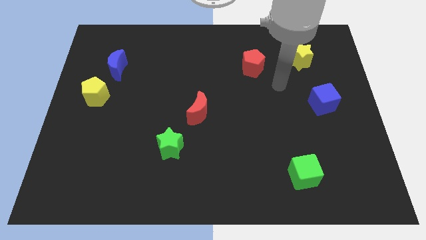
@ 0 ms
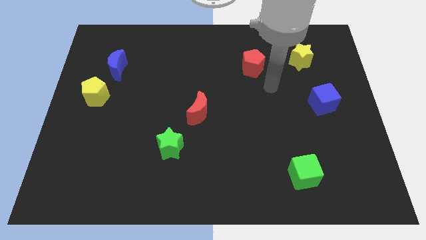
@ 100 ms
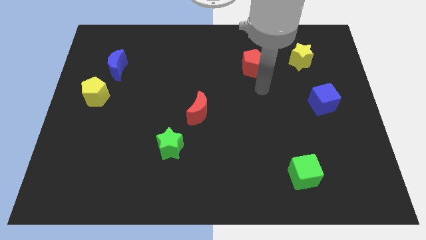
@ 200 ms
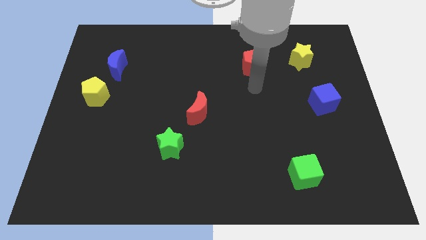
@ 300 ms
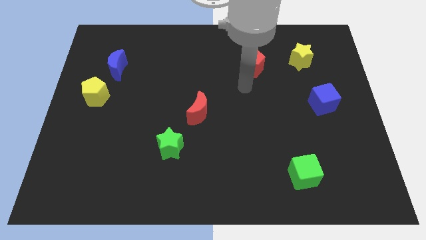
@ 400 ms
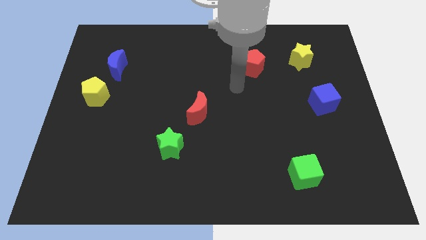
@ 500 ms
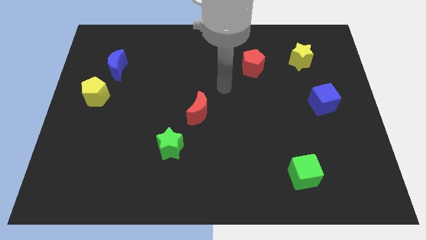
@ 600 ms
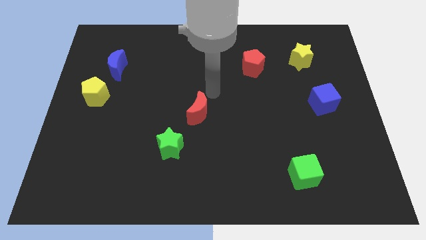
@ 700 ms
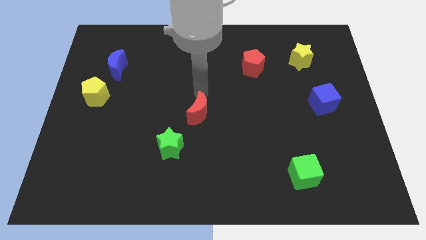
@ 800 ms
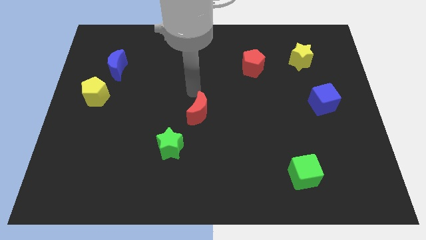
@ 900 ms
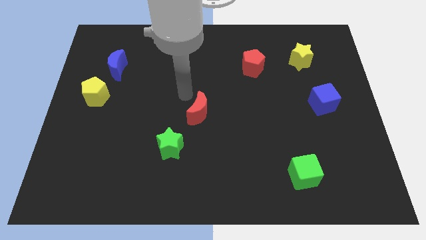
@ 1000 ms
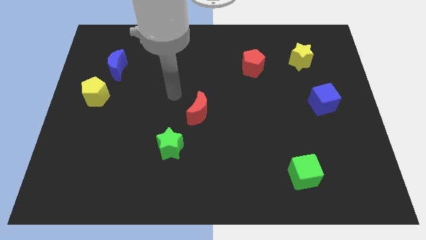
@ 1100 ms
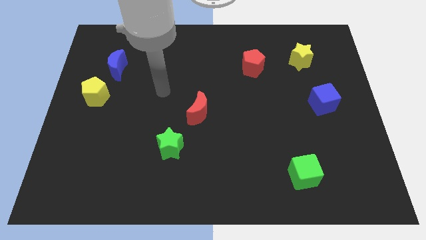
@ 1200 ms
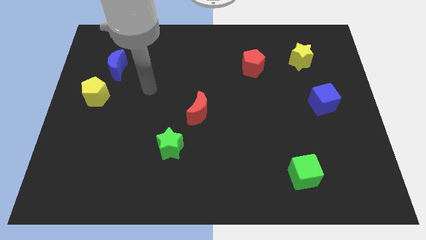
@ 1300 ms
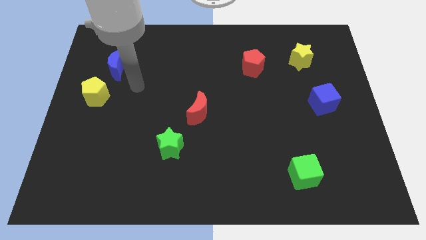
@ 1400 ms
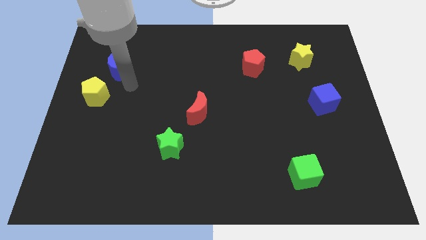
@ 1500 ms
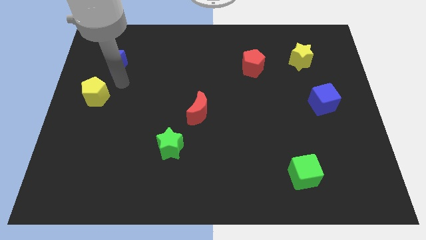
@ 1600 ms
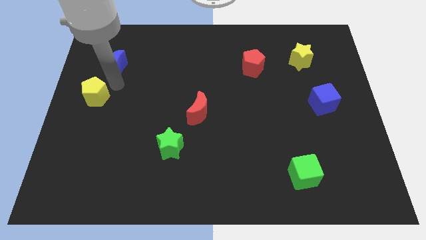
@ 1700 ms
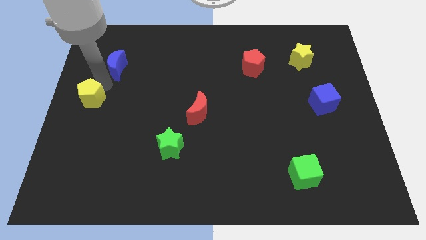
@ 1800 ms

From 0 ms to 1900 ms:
separate the blue moon from the yellow pentagon

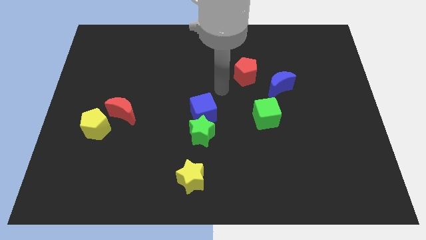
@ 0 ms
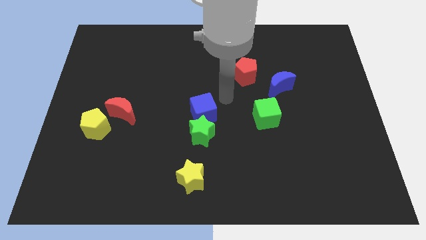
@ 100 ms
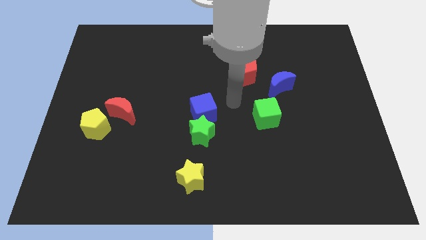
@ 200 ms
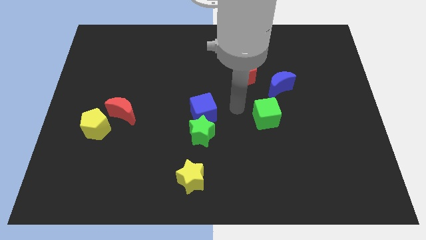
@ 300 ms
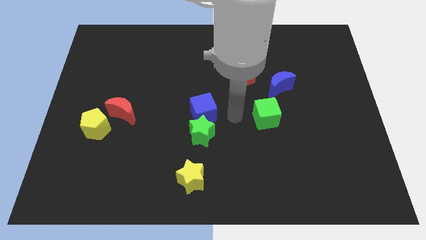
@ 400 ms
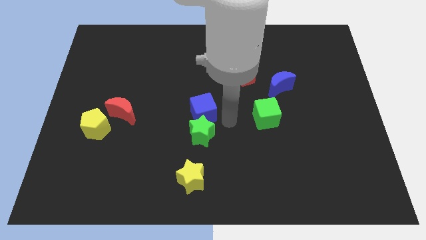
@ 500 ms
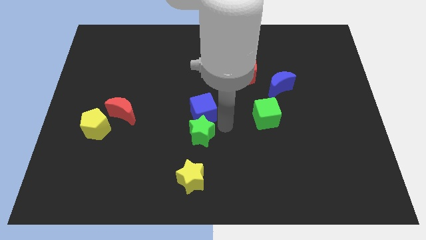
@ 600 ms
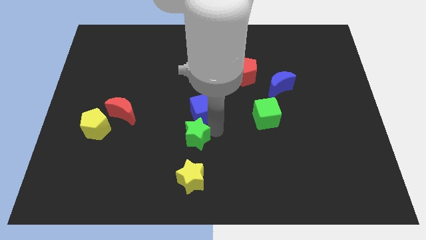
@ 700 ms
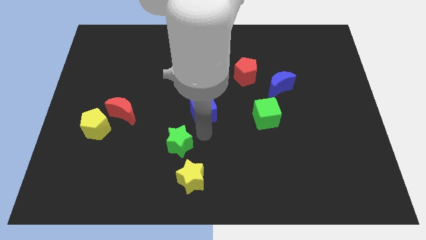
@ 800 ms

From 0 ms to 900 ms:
move the blue cube away from the green star

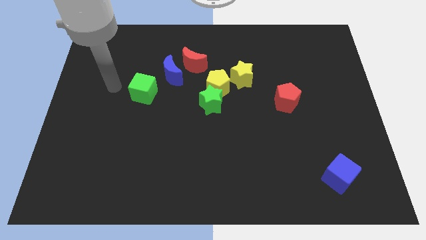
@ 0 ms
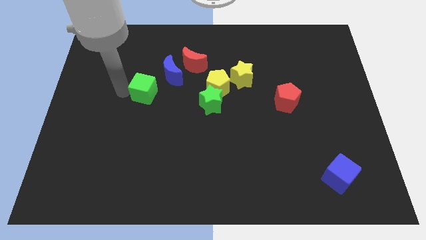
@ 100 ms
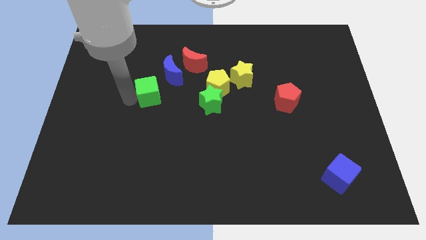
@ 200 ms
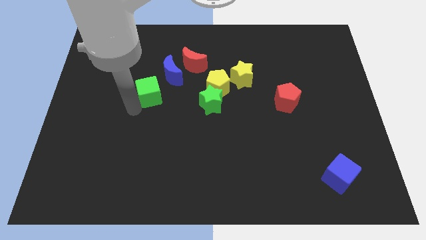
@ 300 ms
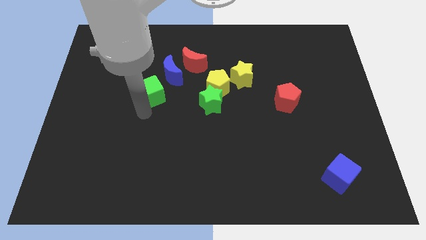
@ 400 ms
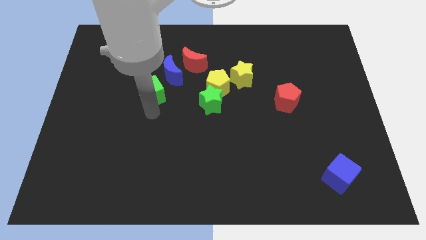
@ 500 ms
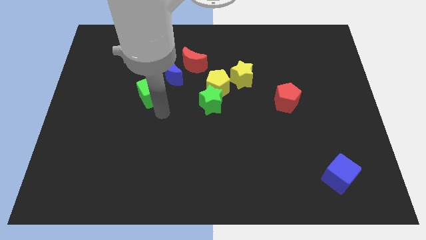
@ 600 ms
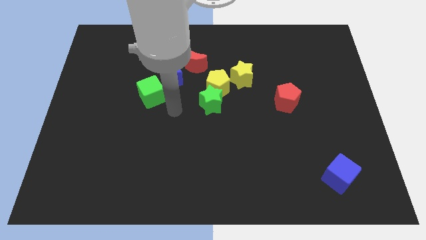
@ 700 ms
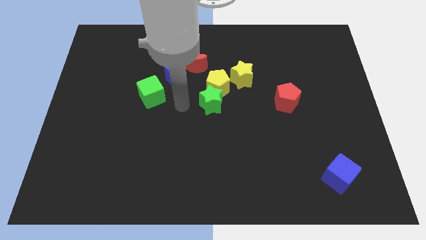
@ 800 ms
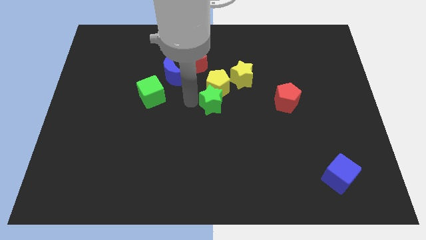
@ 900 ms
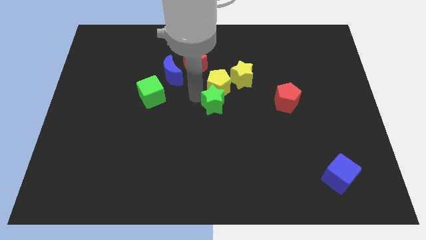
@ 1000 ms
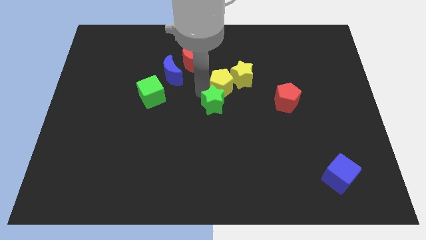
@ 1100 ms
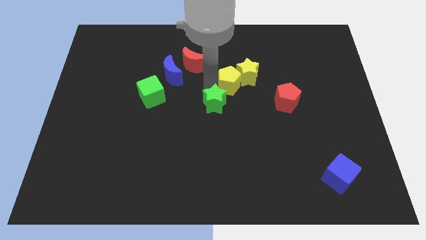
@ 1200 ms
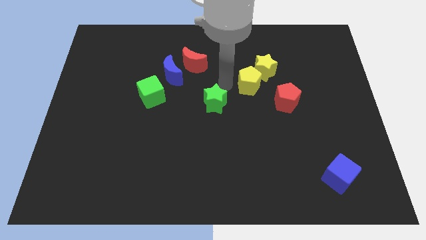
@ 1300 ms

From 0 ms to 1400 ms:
separate the green star from the yellow pentagon

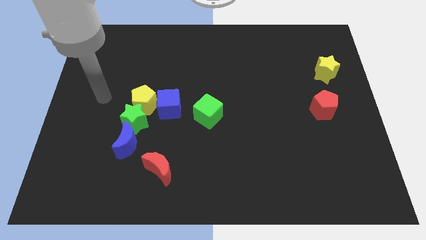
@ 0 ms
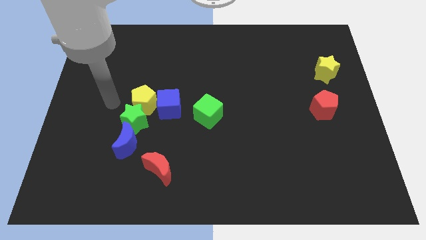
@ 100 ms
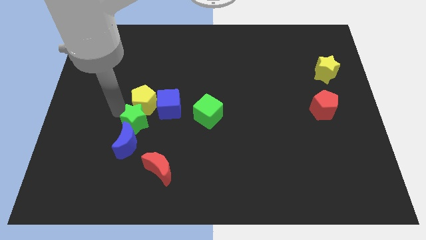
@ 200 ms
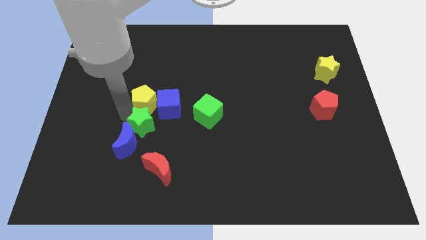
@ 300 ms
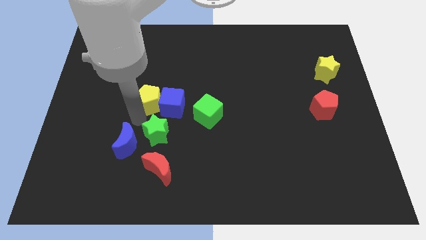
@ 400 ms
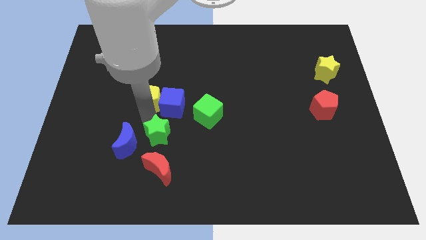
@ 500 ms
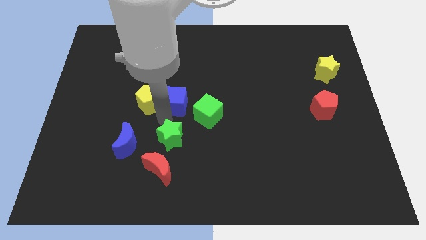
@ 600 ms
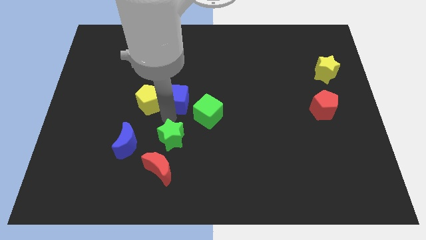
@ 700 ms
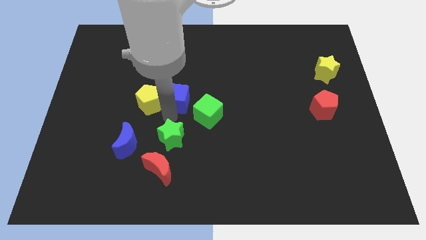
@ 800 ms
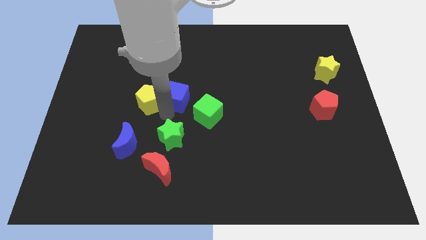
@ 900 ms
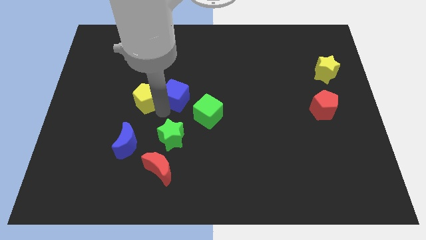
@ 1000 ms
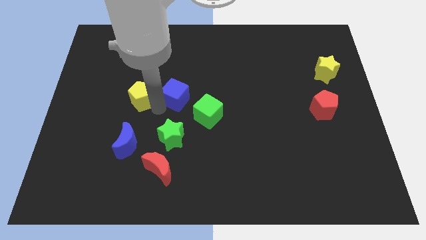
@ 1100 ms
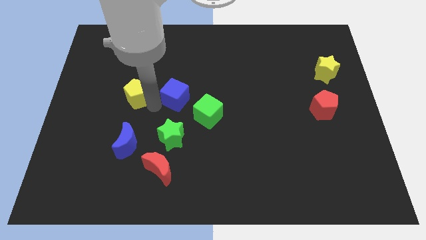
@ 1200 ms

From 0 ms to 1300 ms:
move the yellow pentagon away from the green star and blue cube

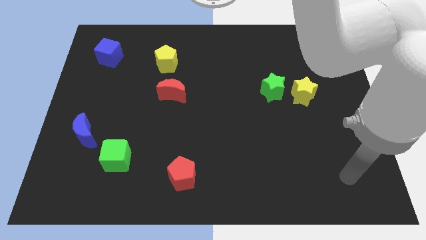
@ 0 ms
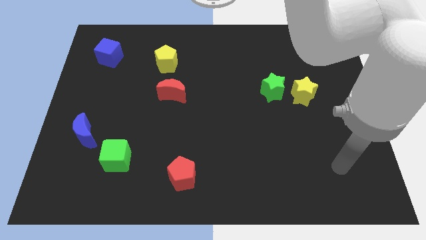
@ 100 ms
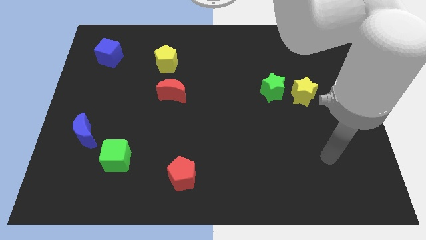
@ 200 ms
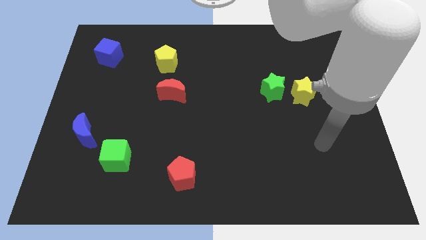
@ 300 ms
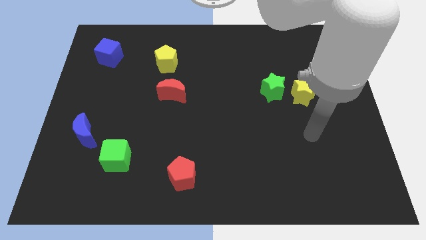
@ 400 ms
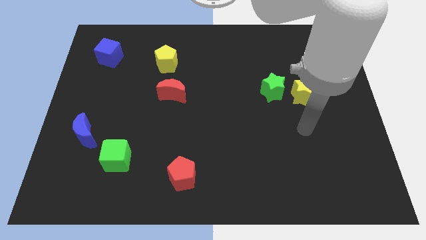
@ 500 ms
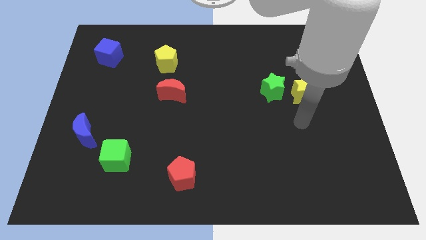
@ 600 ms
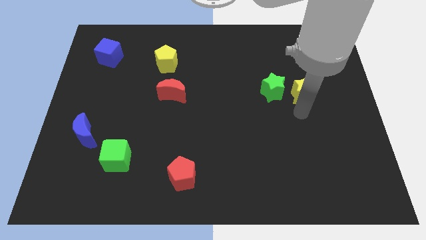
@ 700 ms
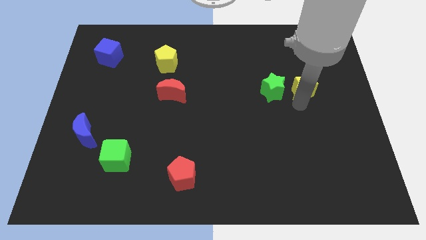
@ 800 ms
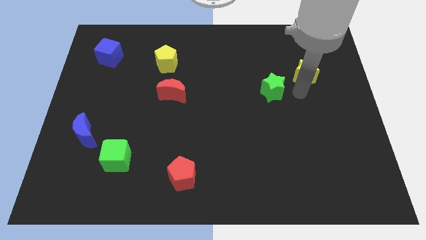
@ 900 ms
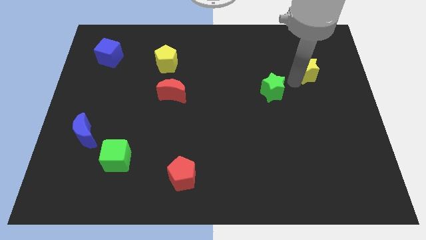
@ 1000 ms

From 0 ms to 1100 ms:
pull the green star apart from the yellow star

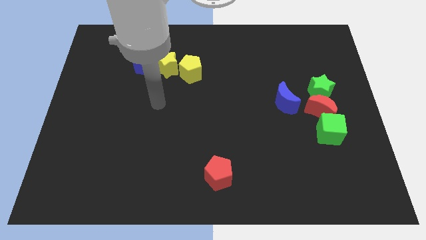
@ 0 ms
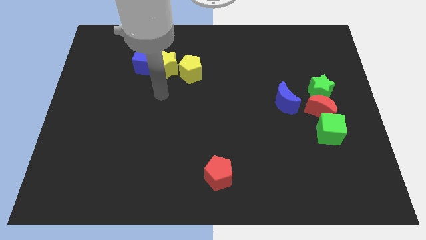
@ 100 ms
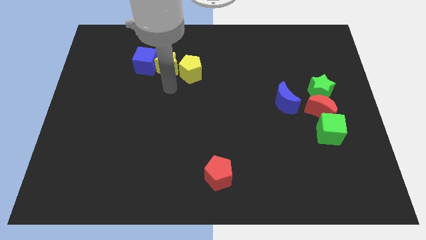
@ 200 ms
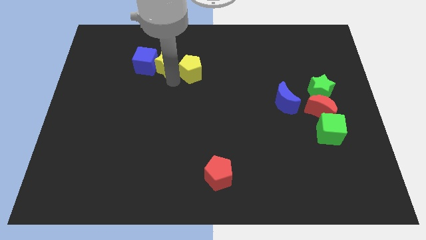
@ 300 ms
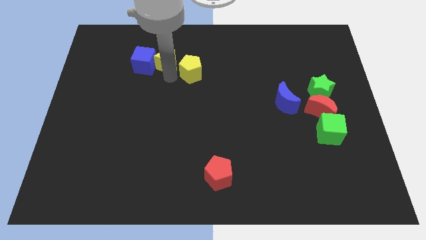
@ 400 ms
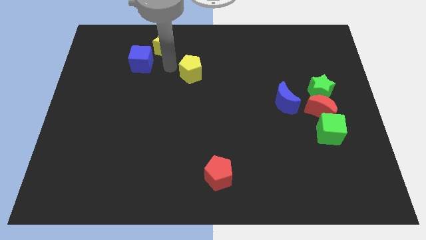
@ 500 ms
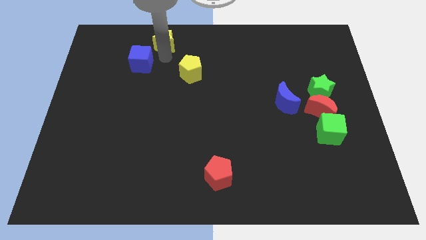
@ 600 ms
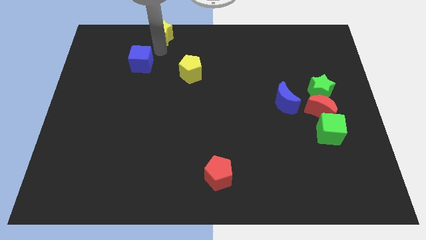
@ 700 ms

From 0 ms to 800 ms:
pull the blue cube apart from the yellow star

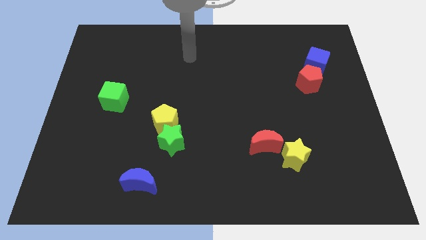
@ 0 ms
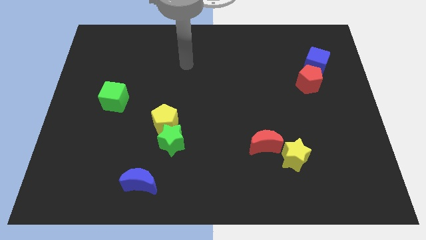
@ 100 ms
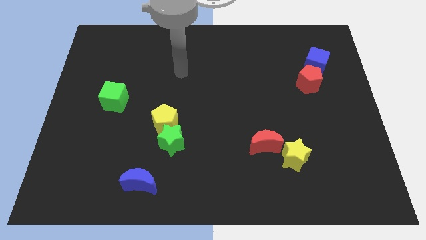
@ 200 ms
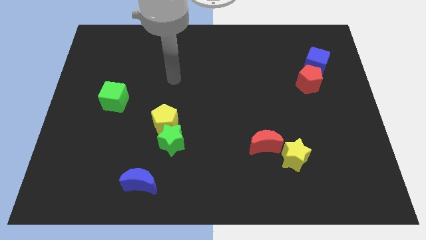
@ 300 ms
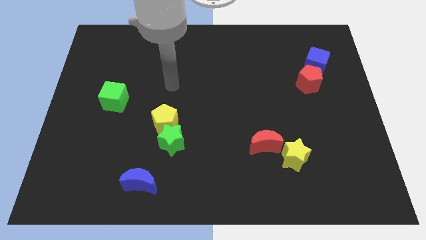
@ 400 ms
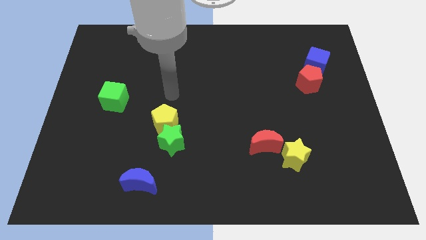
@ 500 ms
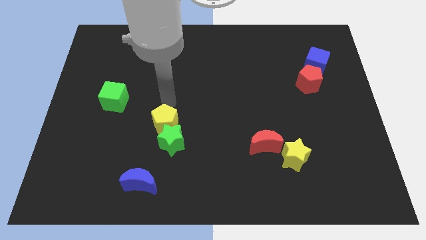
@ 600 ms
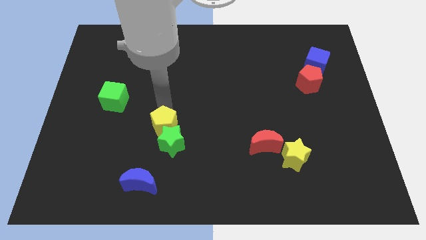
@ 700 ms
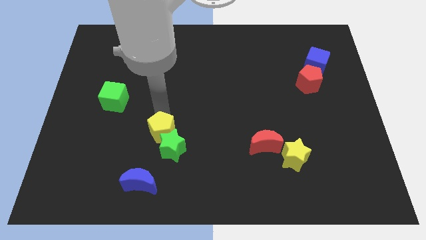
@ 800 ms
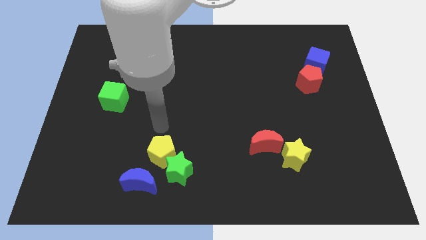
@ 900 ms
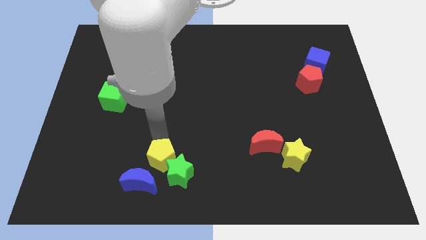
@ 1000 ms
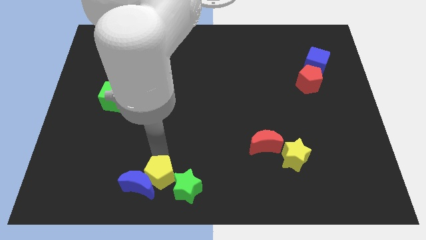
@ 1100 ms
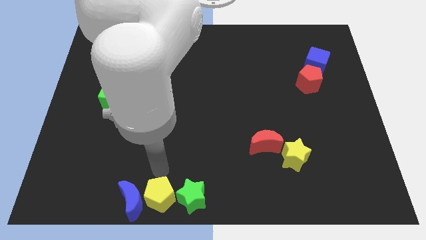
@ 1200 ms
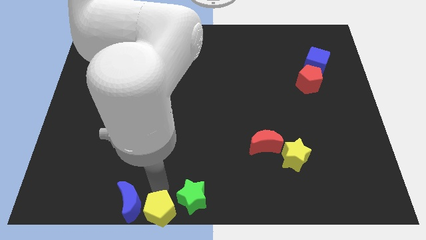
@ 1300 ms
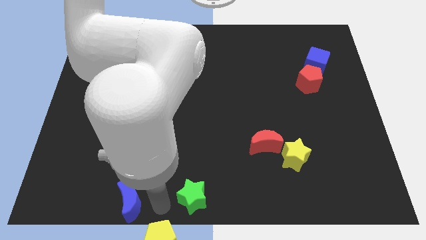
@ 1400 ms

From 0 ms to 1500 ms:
pull the green star apart from the yellow pentagon

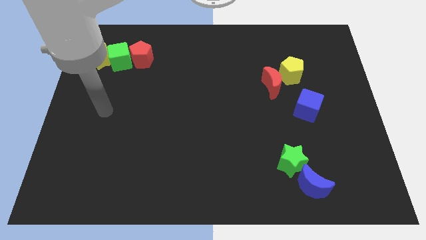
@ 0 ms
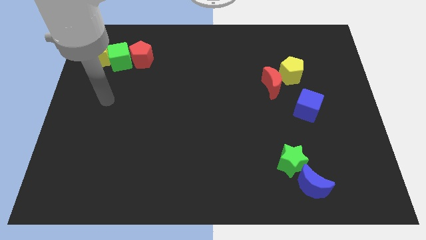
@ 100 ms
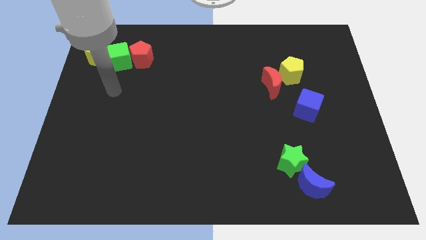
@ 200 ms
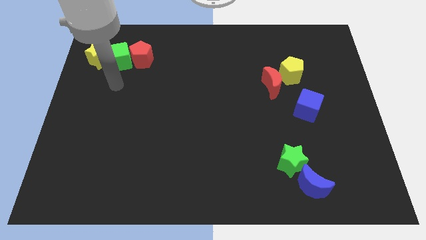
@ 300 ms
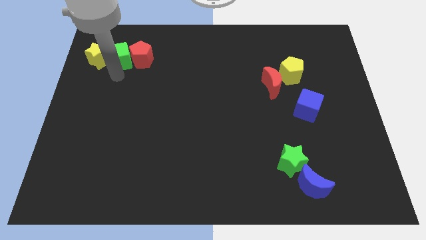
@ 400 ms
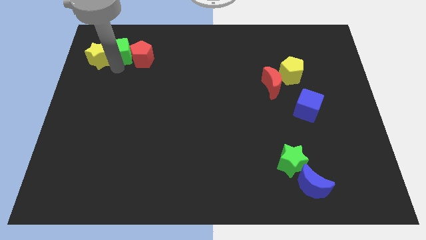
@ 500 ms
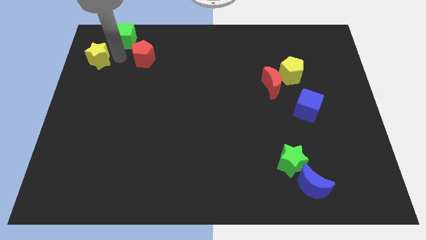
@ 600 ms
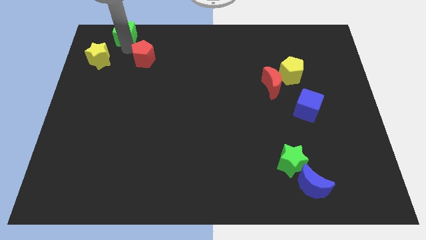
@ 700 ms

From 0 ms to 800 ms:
pull the red pentagon apart from the green cube
